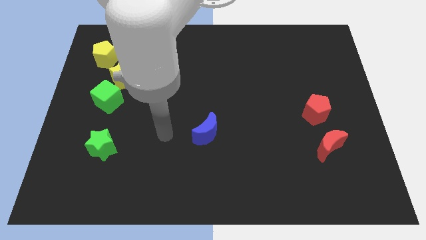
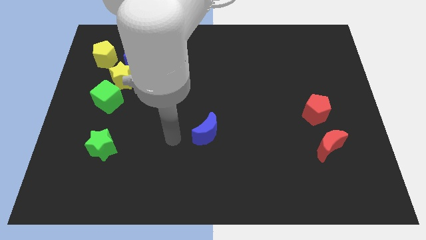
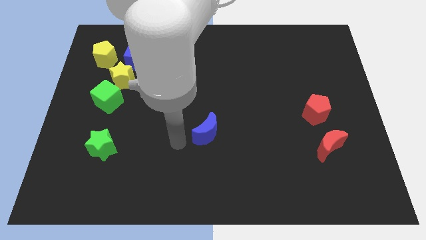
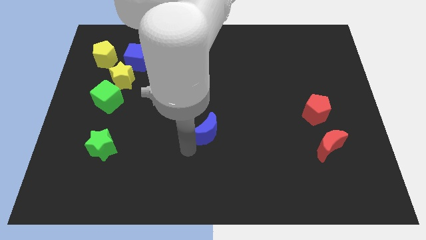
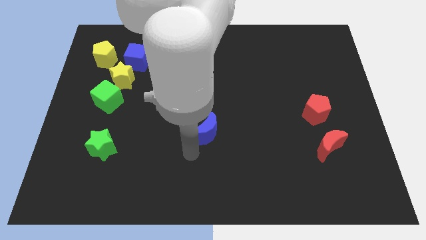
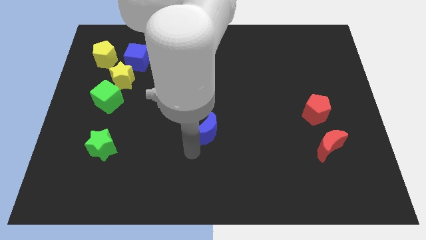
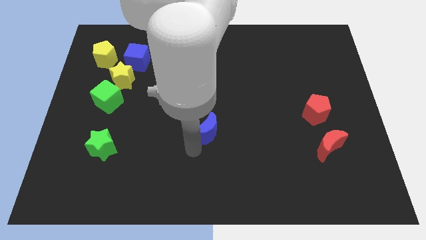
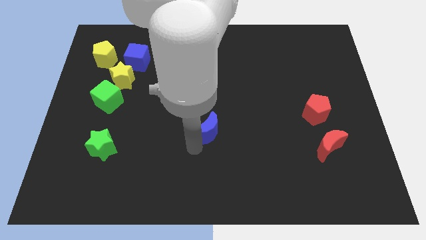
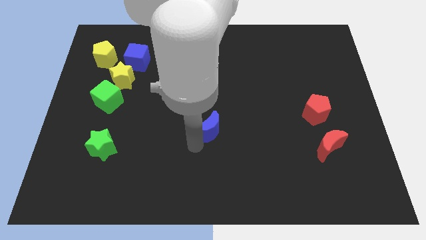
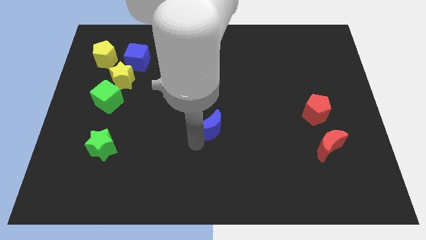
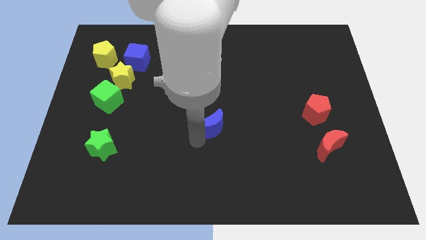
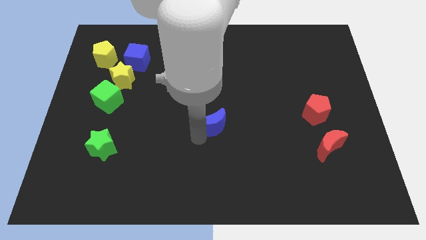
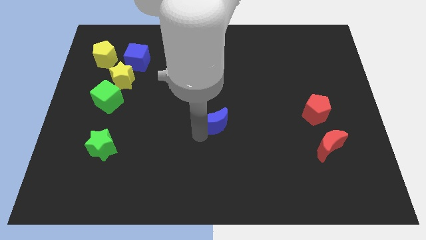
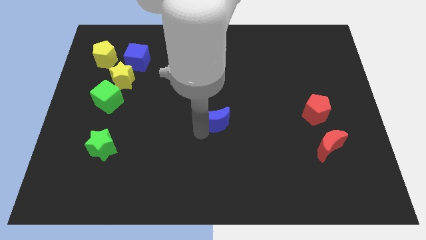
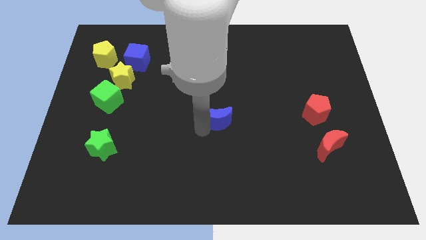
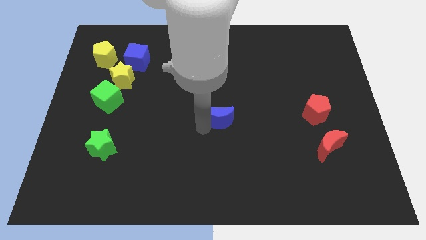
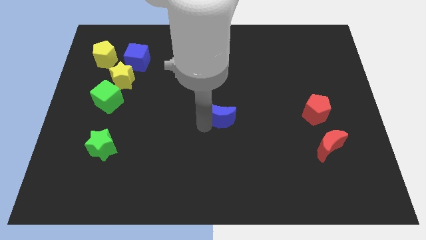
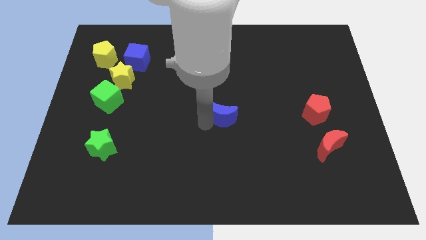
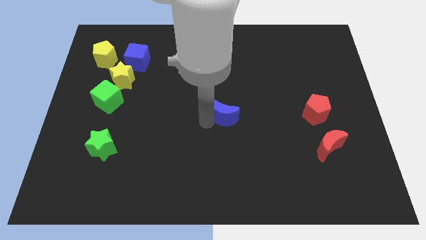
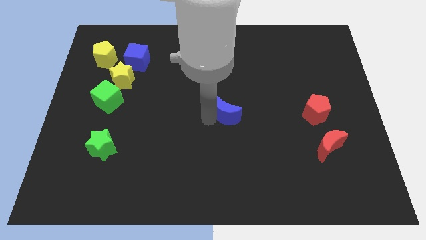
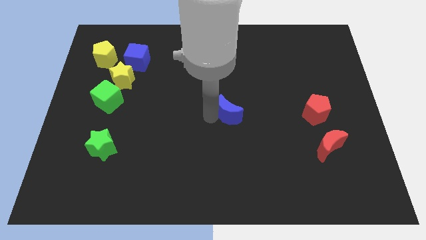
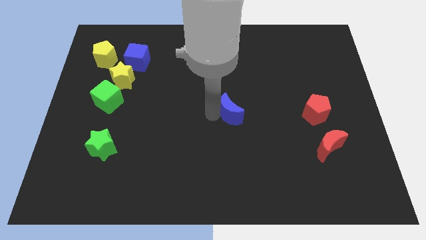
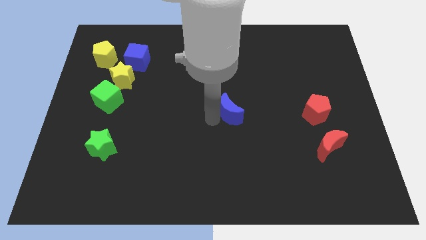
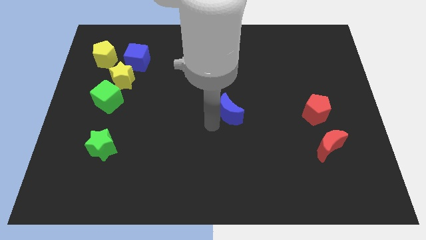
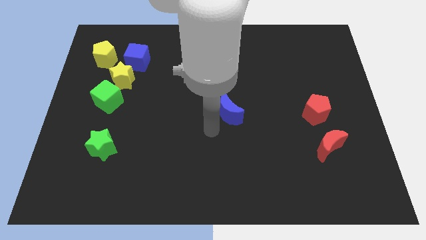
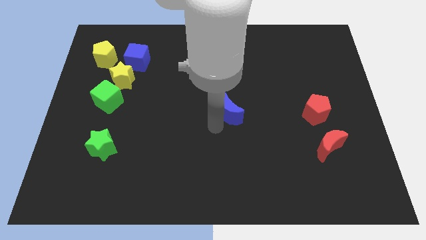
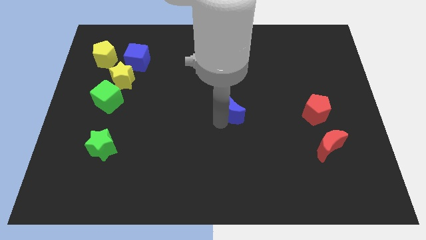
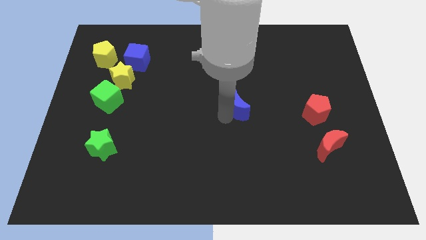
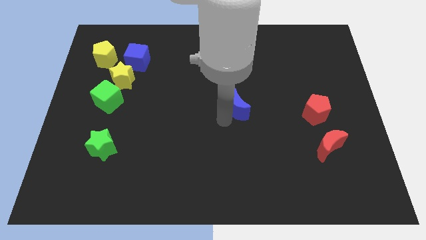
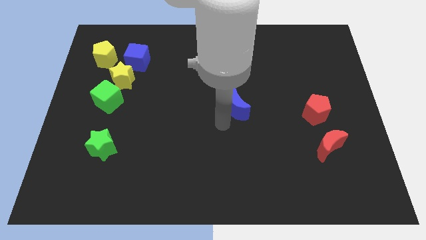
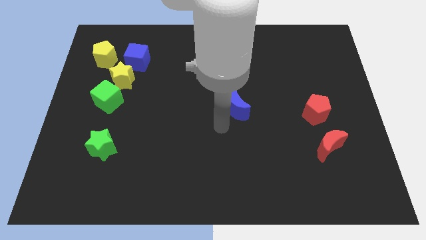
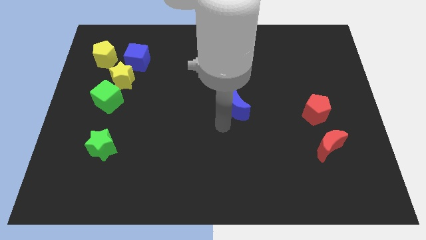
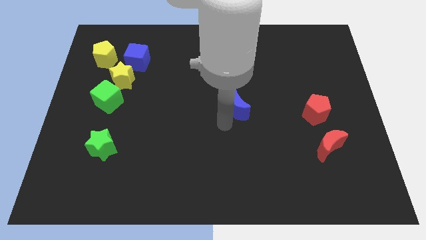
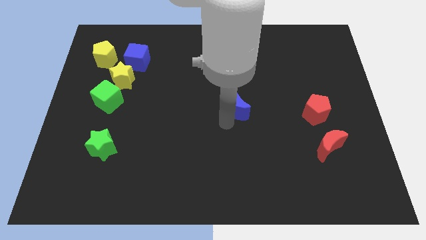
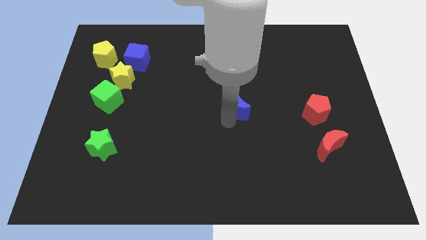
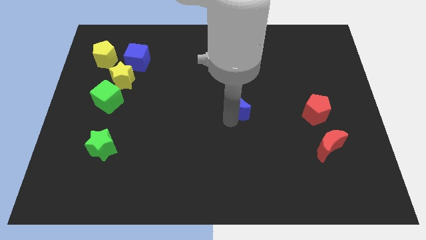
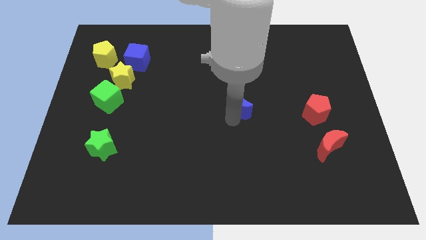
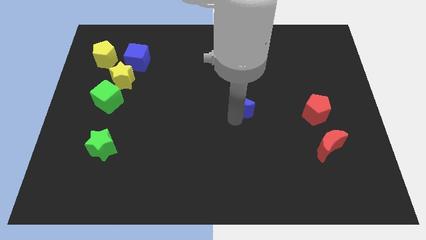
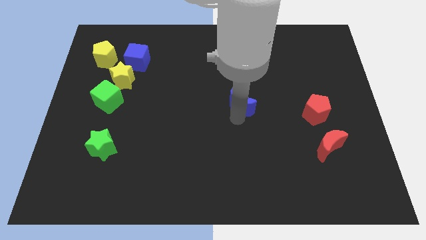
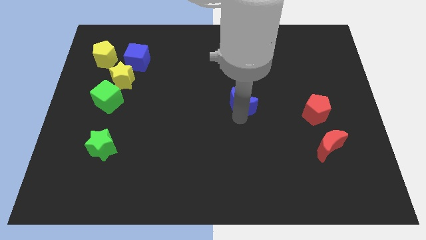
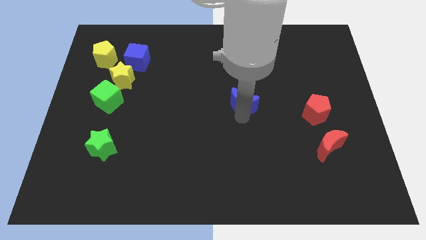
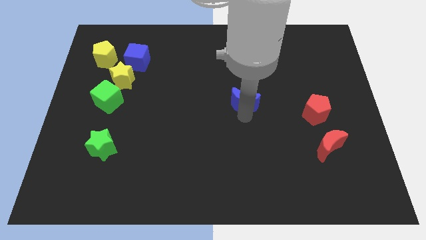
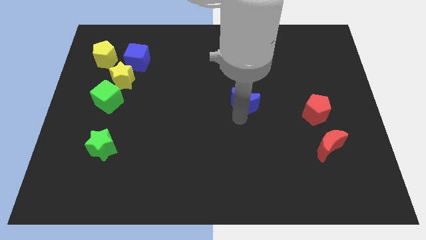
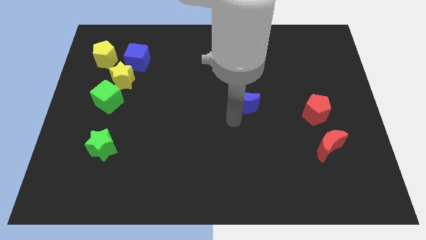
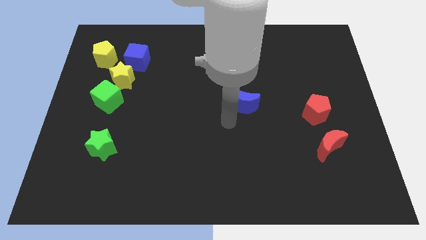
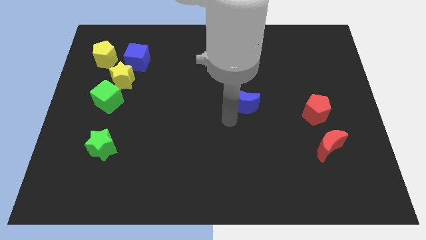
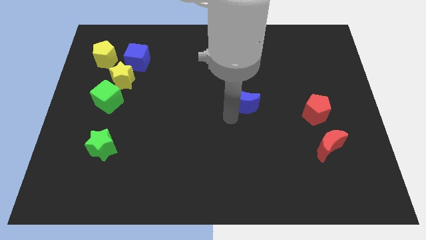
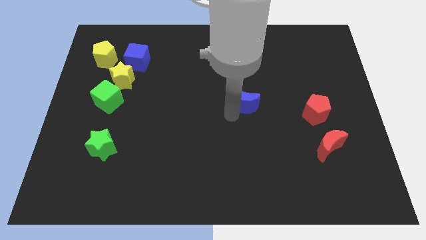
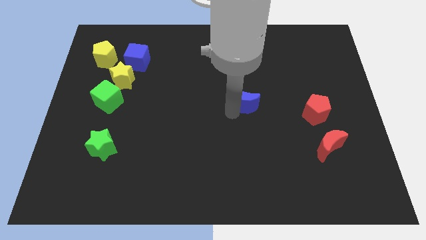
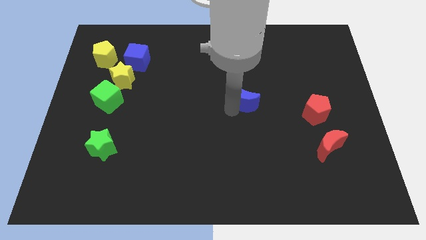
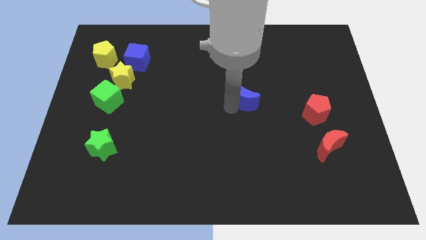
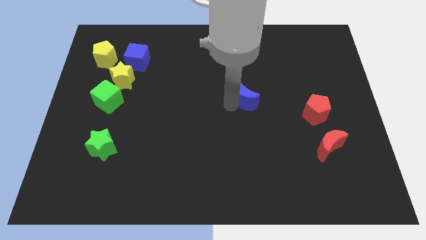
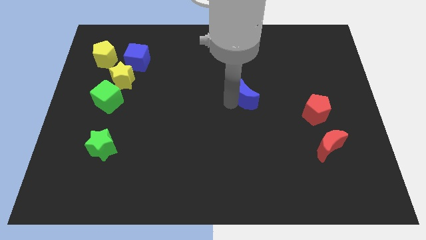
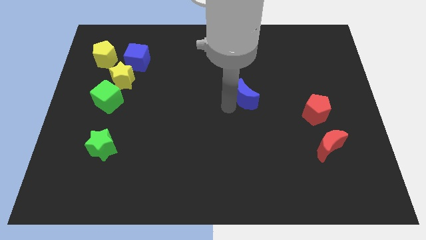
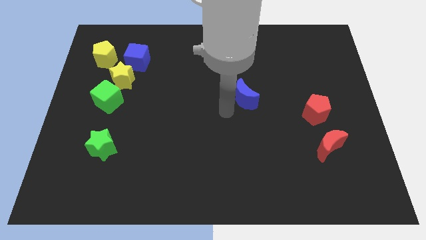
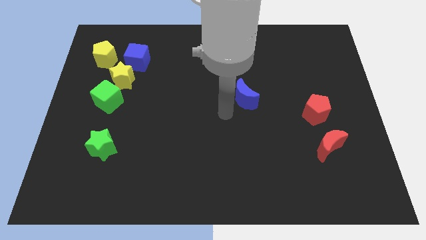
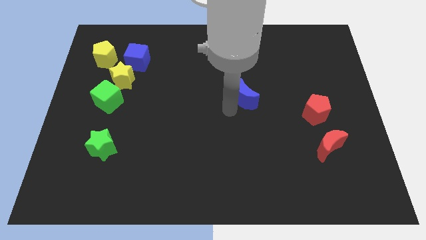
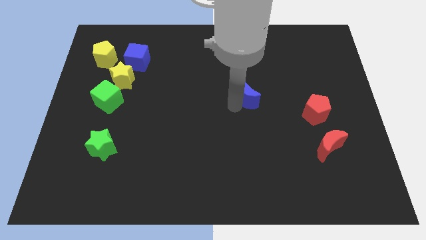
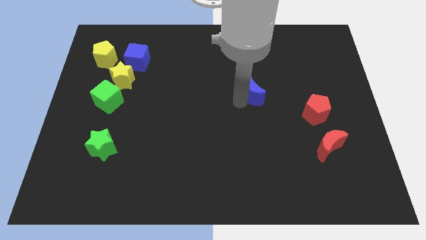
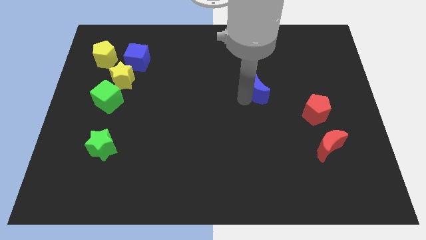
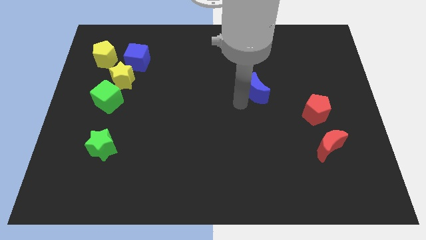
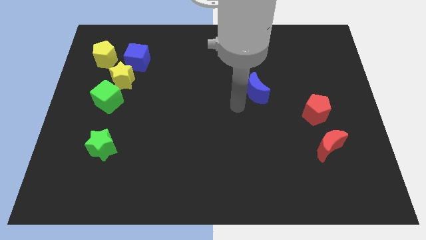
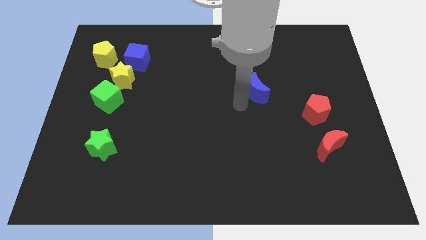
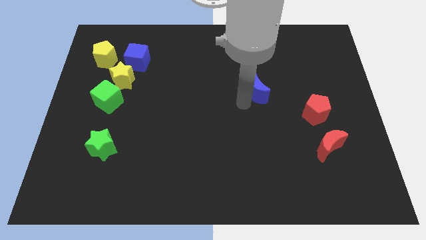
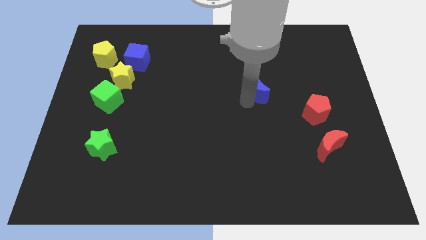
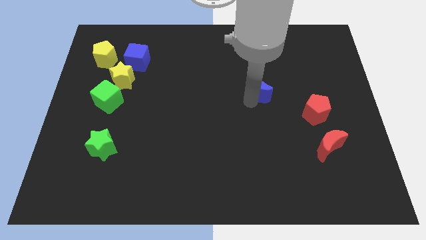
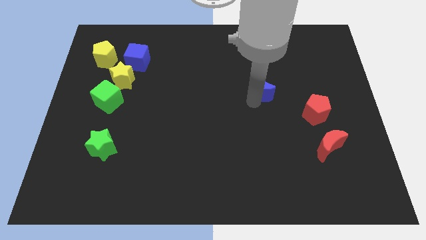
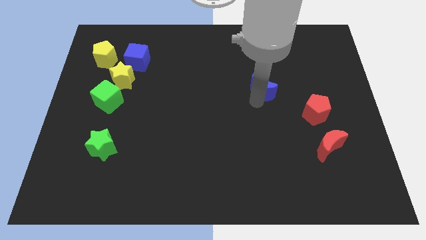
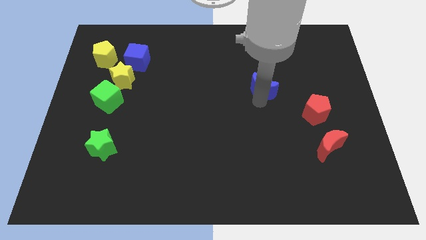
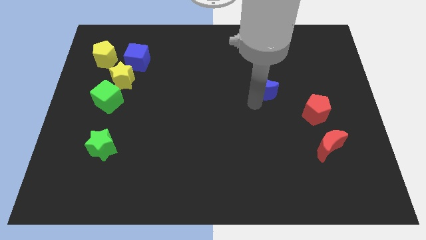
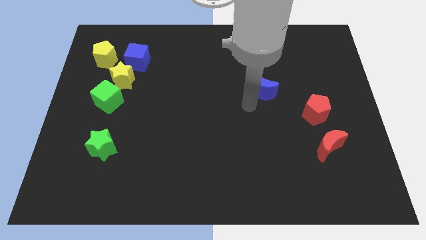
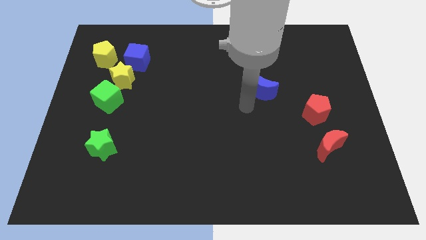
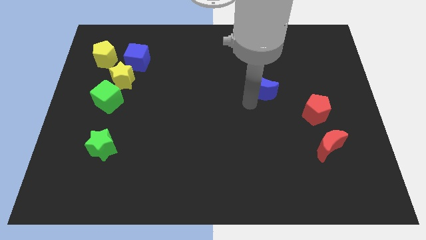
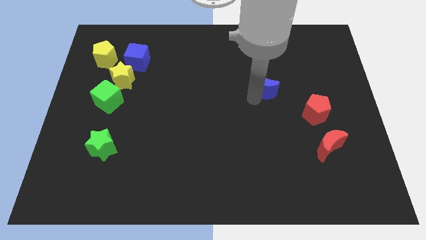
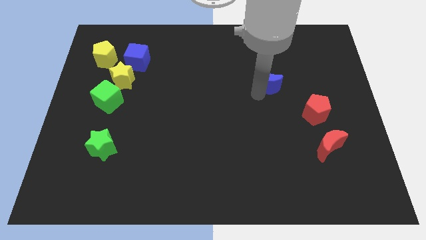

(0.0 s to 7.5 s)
slide the blue moon diagonally up and to the right

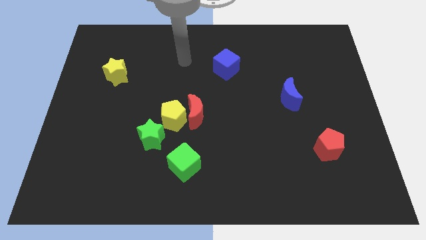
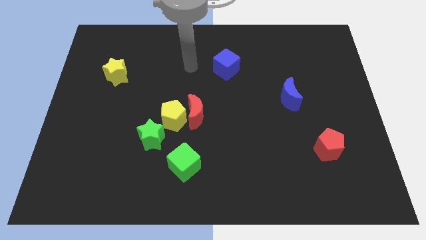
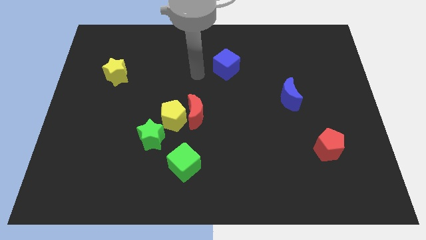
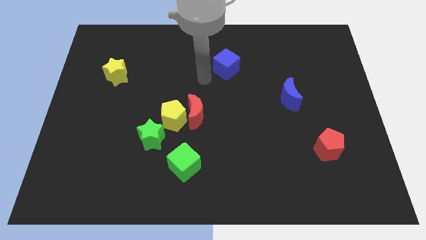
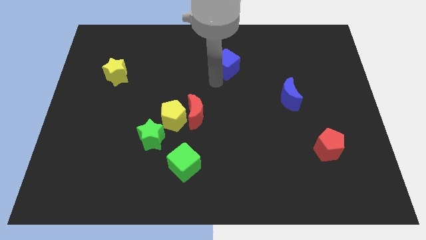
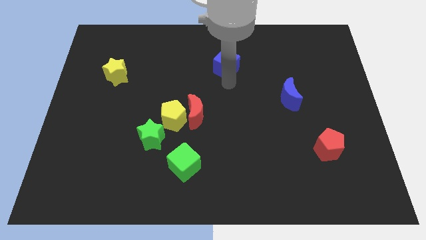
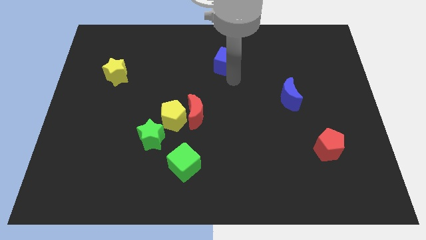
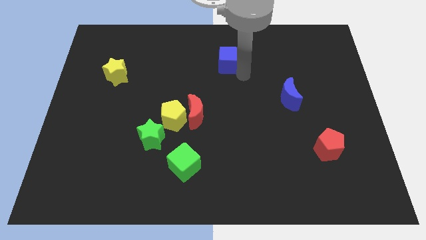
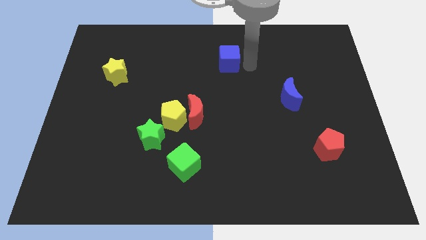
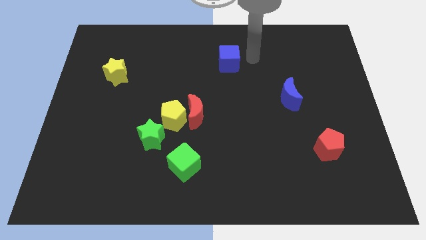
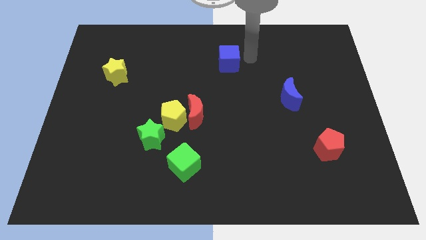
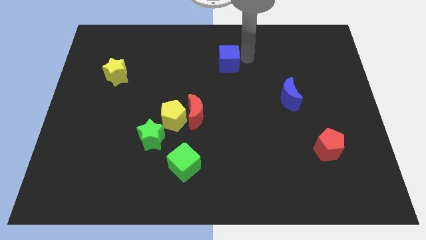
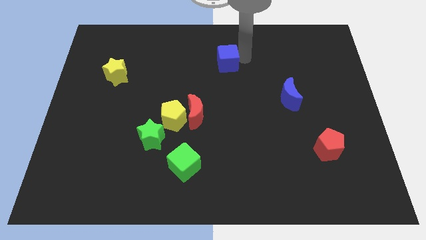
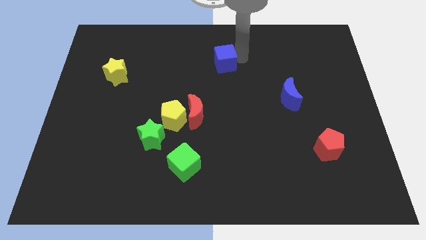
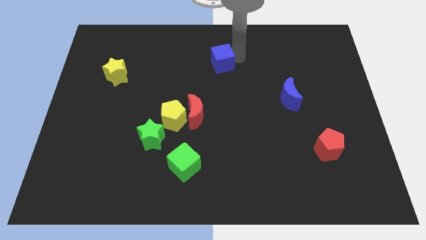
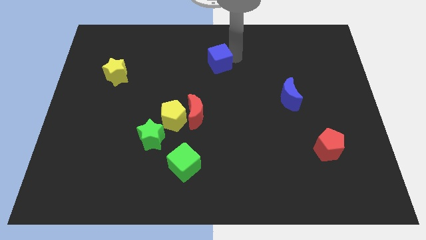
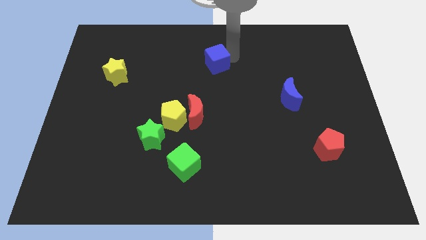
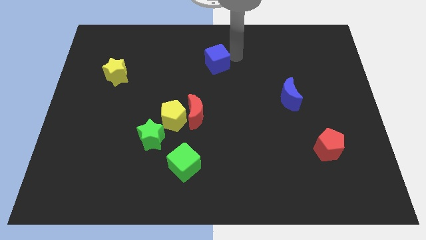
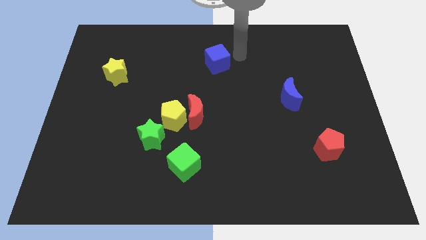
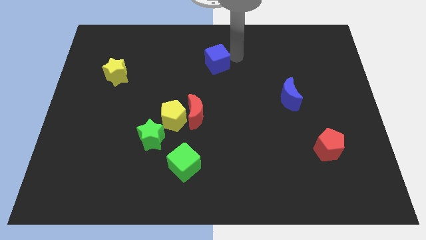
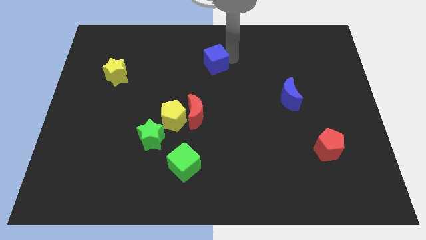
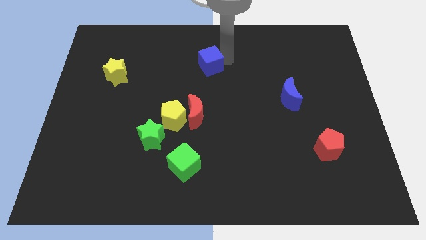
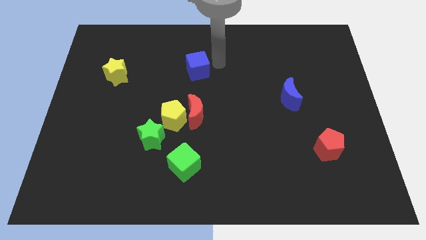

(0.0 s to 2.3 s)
push the blue cube slightly left
